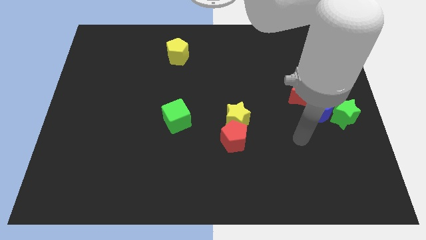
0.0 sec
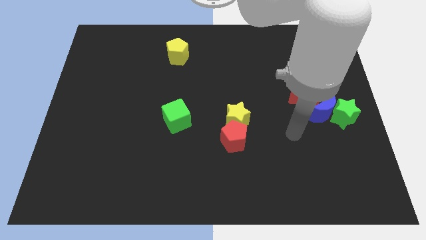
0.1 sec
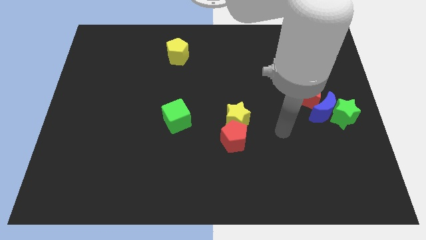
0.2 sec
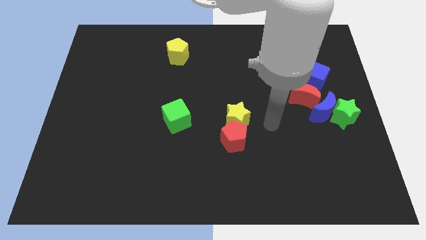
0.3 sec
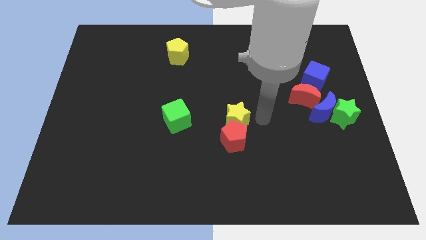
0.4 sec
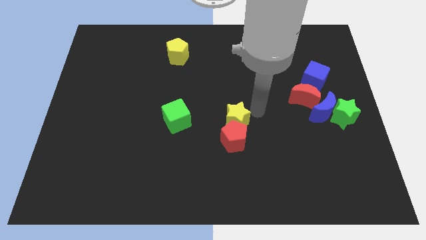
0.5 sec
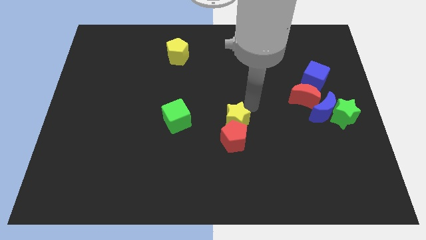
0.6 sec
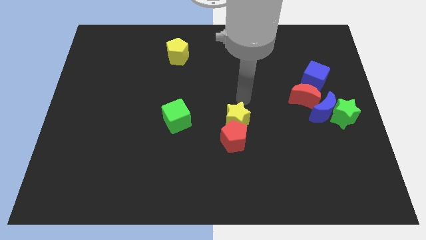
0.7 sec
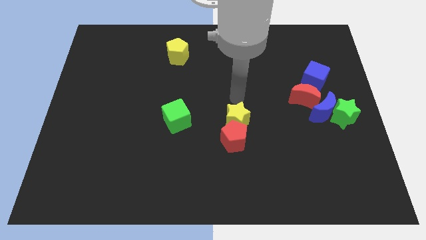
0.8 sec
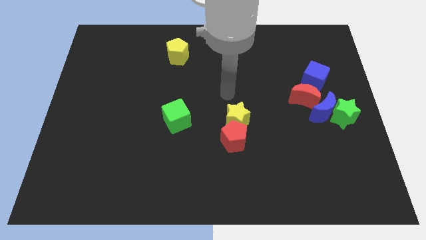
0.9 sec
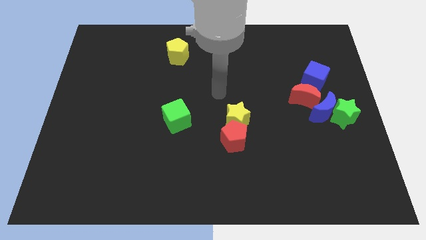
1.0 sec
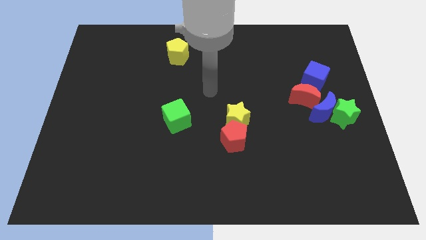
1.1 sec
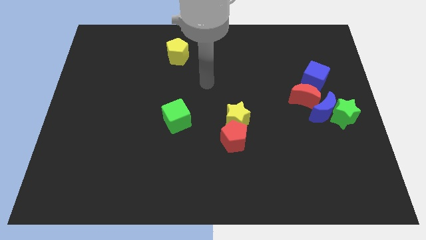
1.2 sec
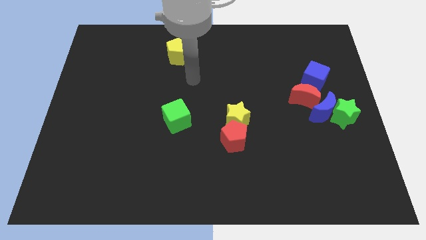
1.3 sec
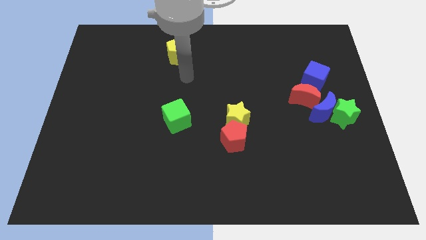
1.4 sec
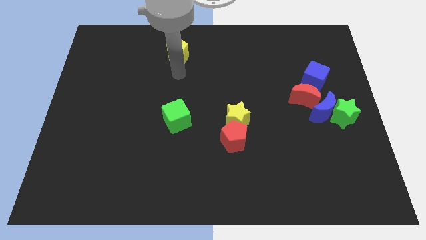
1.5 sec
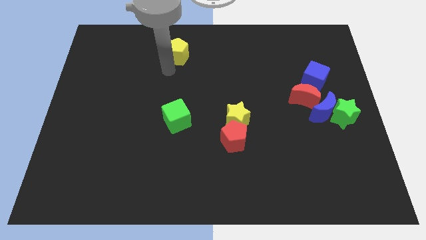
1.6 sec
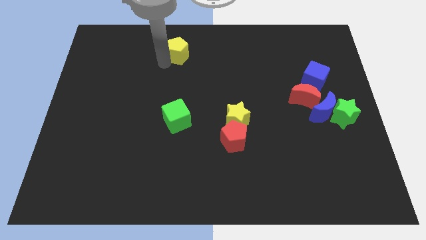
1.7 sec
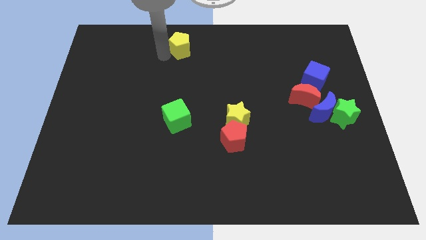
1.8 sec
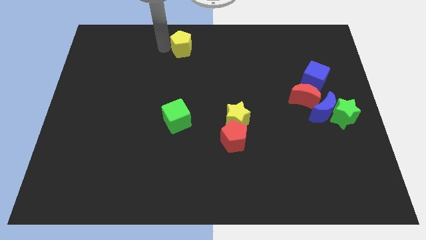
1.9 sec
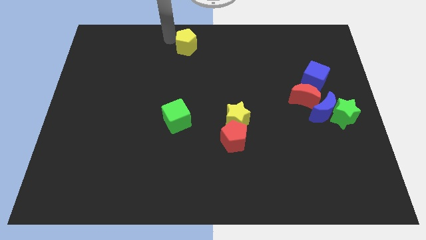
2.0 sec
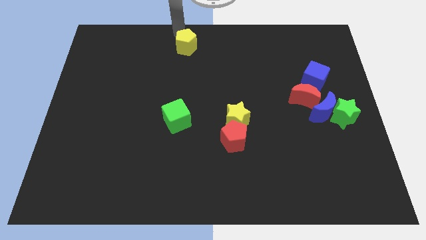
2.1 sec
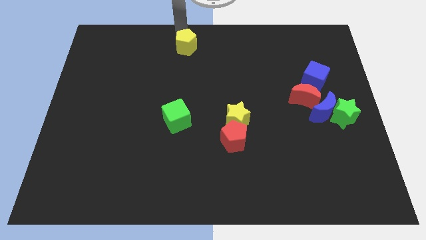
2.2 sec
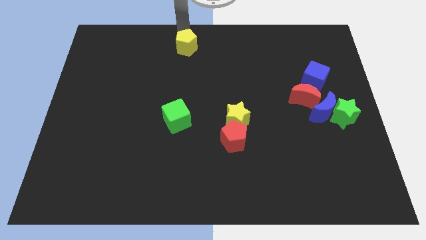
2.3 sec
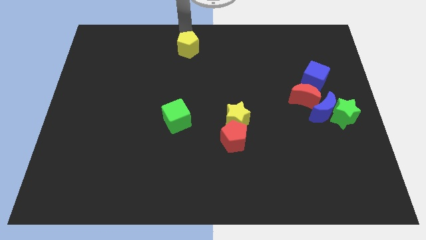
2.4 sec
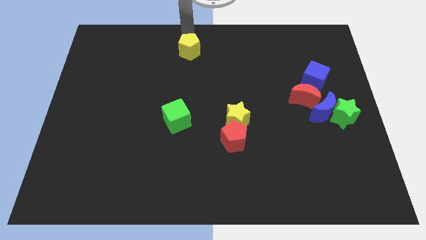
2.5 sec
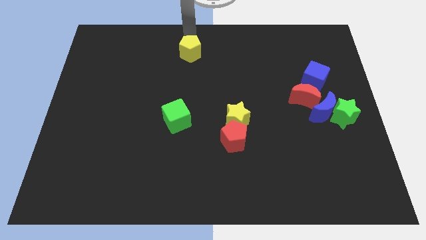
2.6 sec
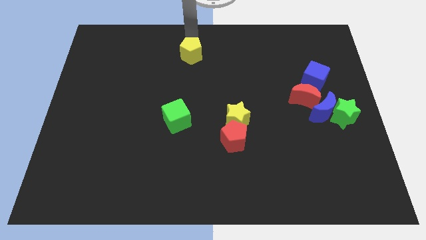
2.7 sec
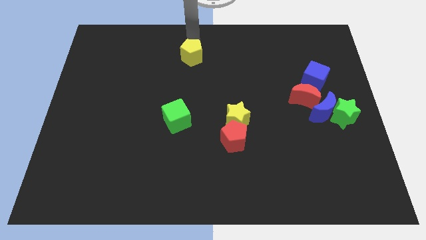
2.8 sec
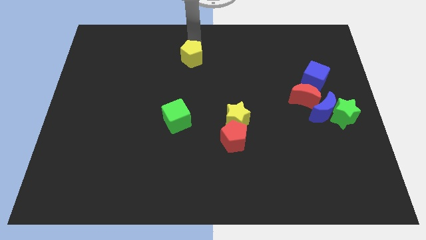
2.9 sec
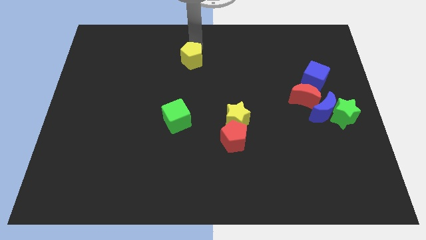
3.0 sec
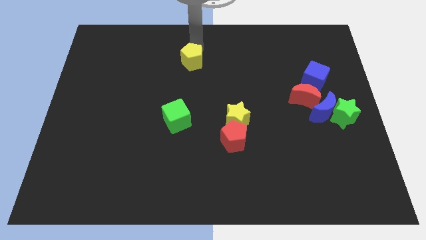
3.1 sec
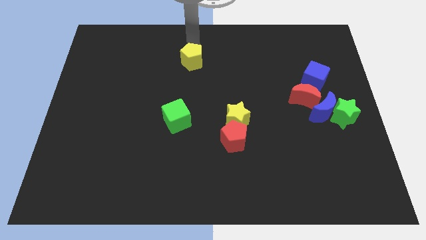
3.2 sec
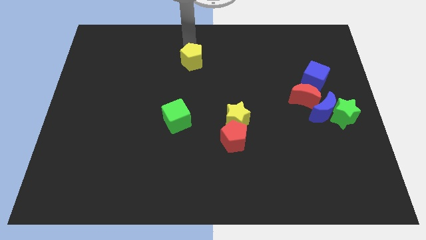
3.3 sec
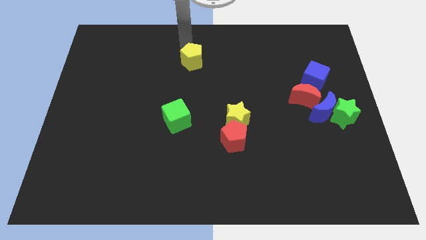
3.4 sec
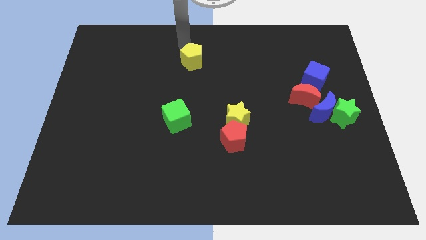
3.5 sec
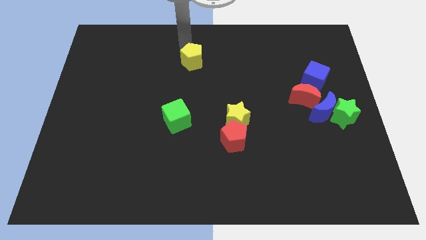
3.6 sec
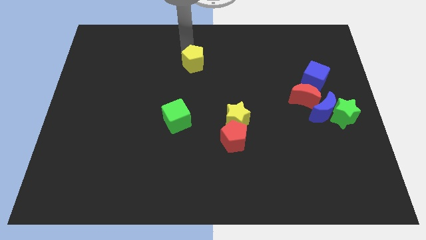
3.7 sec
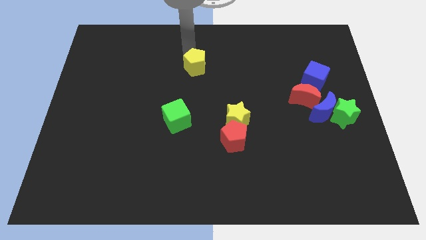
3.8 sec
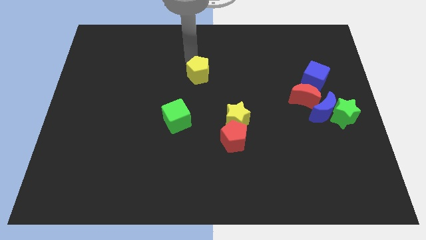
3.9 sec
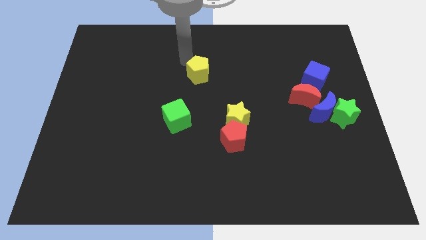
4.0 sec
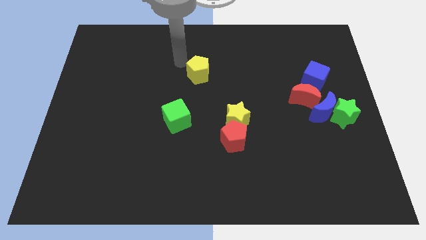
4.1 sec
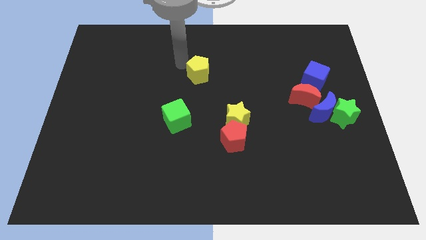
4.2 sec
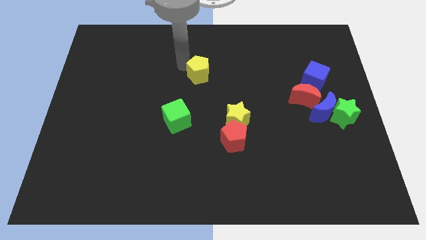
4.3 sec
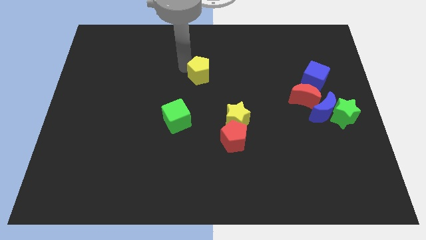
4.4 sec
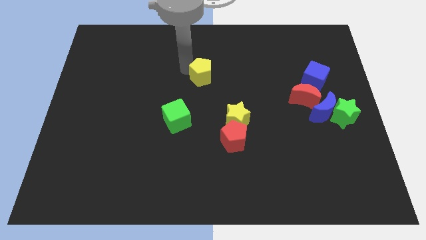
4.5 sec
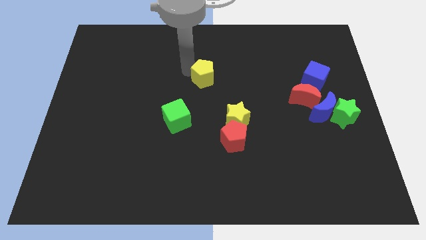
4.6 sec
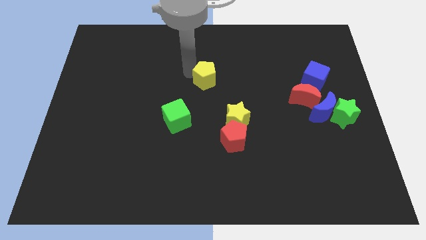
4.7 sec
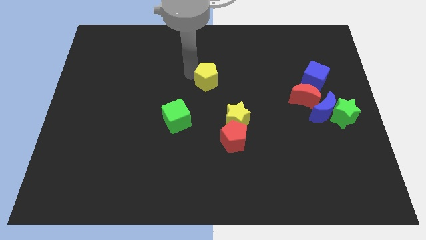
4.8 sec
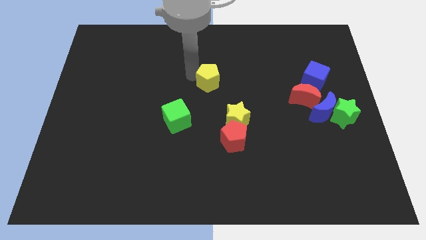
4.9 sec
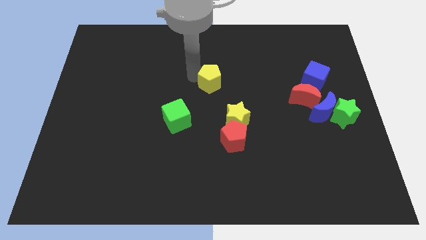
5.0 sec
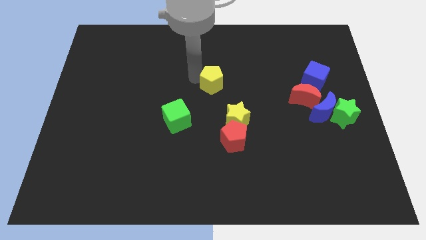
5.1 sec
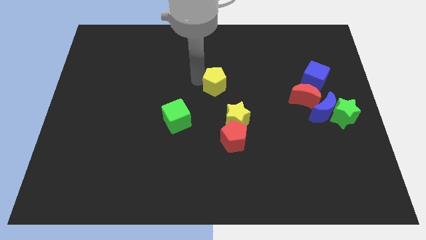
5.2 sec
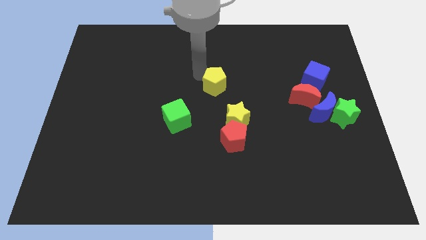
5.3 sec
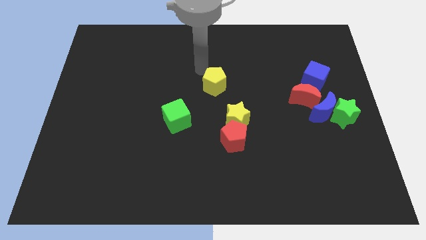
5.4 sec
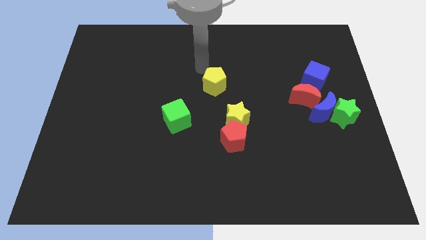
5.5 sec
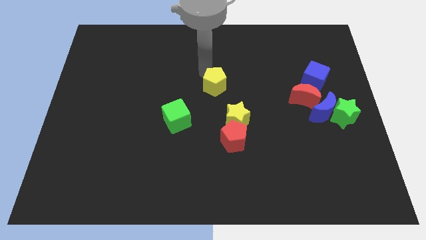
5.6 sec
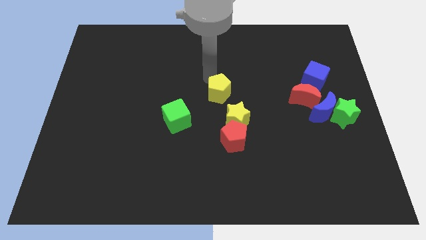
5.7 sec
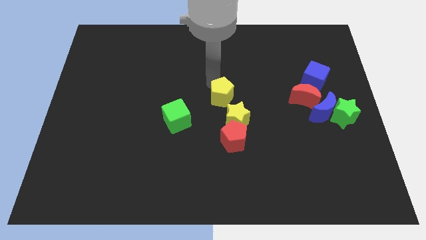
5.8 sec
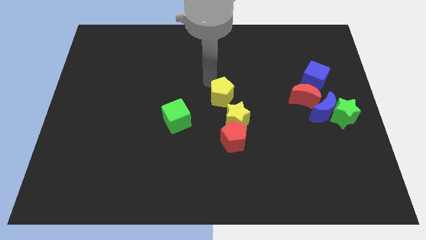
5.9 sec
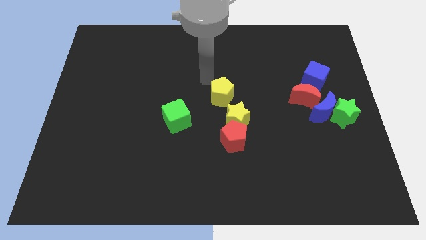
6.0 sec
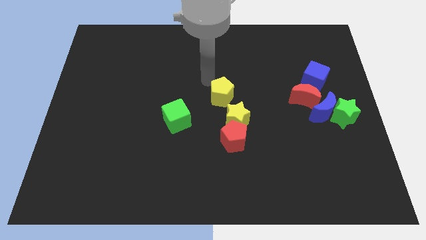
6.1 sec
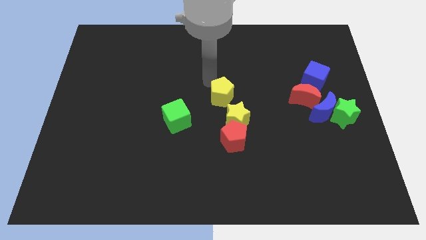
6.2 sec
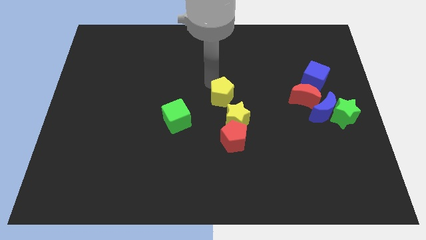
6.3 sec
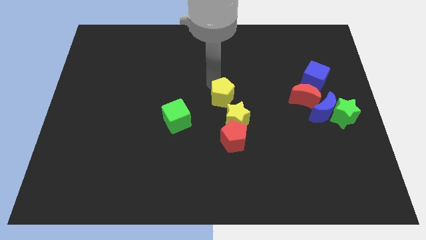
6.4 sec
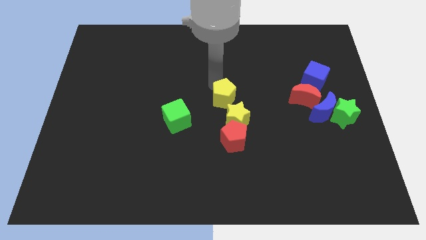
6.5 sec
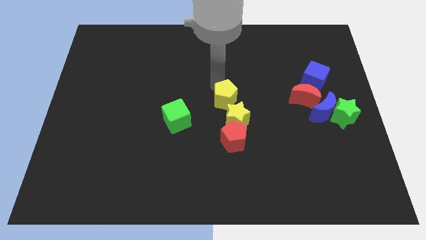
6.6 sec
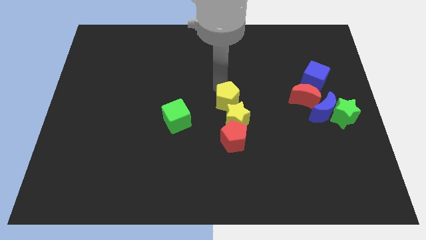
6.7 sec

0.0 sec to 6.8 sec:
move the yellow pentagon close to the yellow star

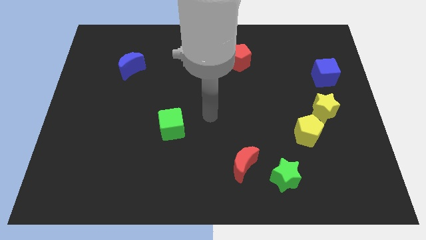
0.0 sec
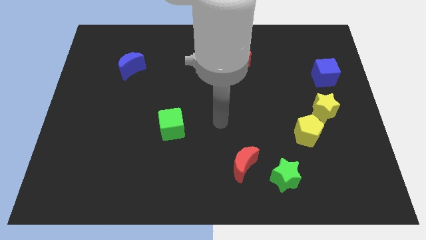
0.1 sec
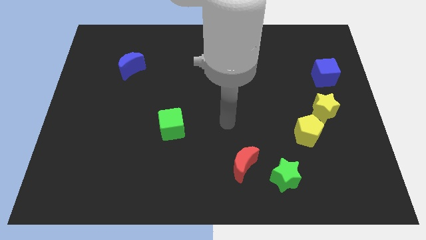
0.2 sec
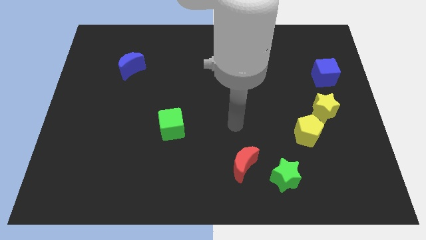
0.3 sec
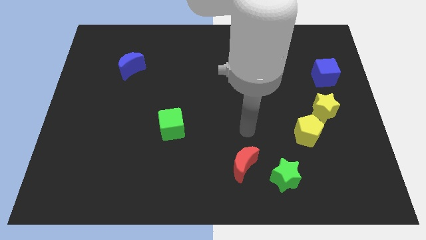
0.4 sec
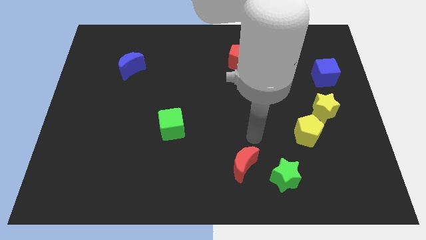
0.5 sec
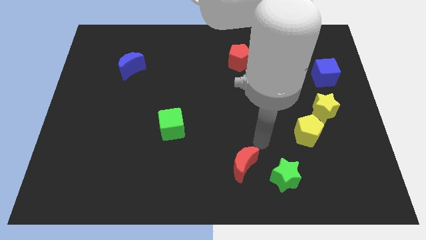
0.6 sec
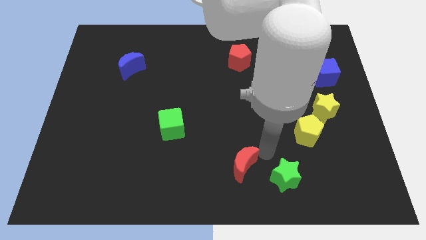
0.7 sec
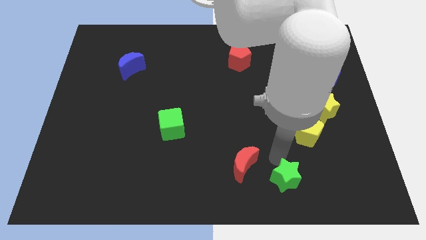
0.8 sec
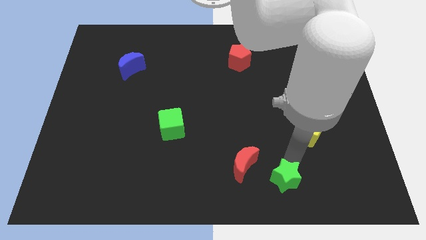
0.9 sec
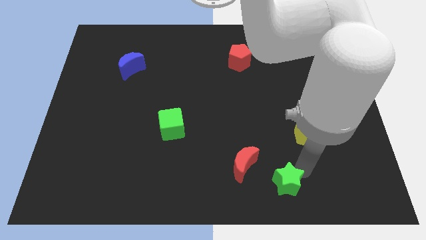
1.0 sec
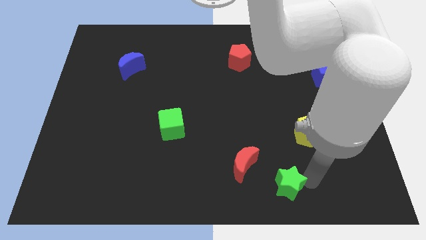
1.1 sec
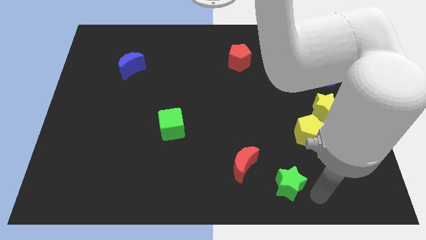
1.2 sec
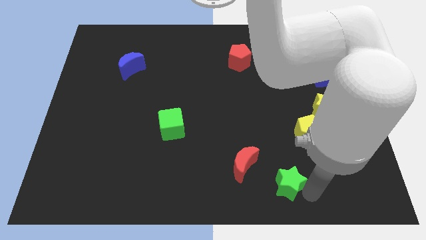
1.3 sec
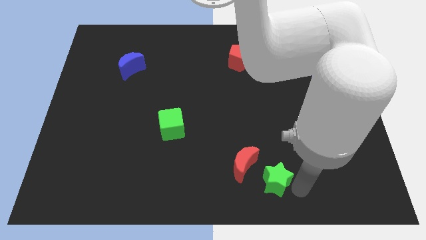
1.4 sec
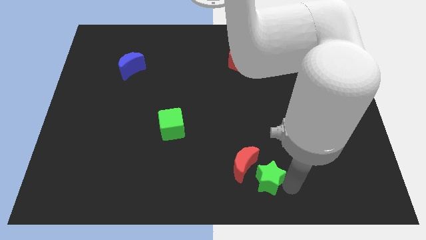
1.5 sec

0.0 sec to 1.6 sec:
move the green star to the red moon
